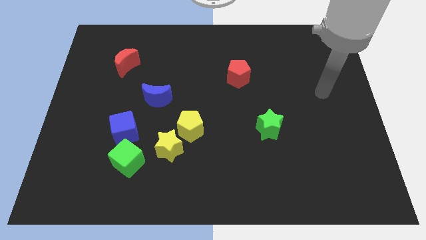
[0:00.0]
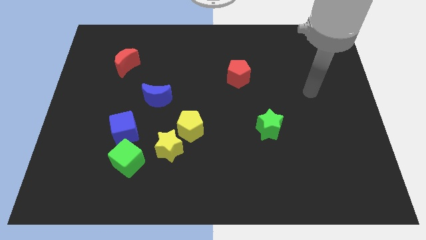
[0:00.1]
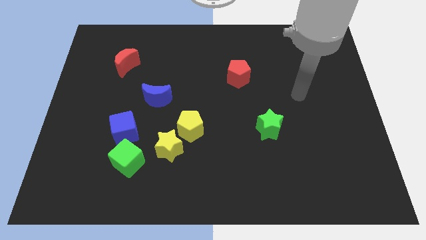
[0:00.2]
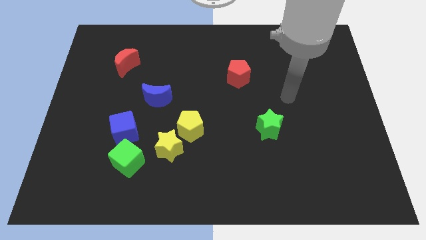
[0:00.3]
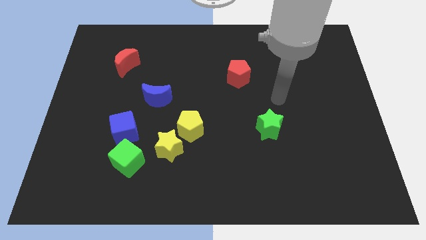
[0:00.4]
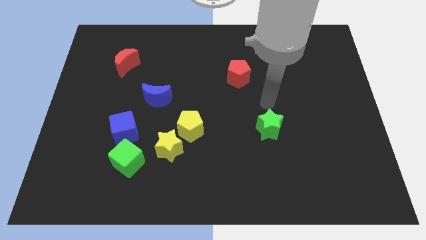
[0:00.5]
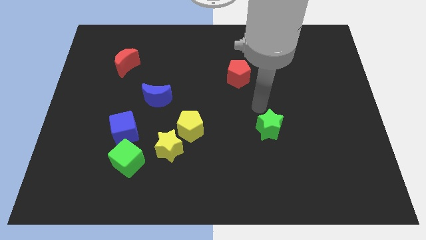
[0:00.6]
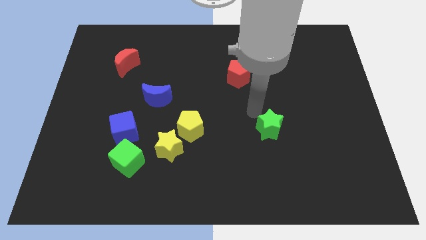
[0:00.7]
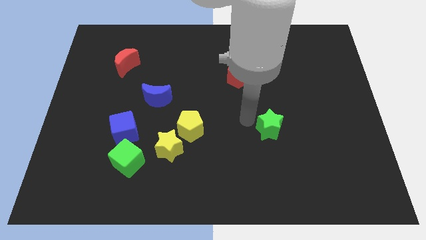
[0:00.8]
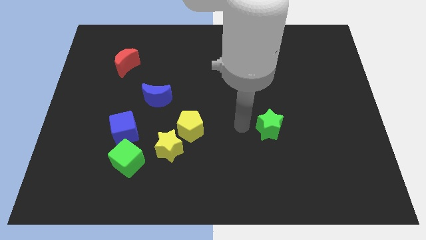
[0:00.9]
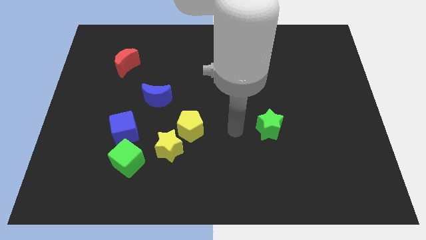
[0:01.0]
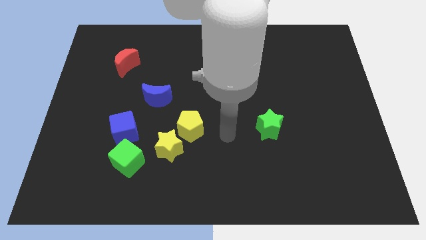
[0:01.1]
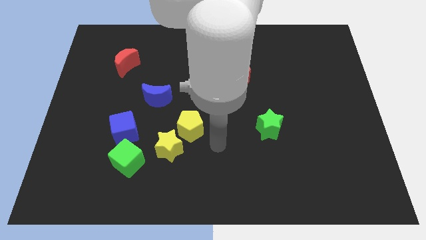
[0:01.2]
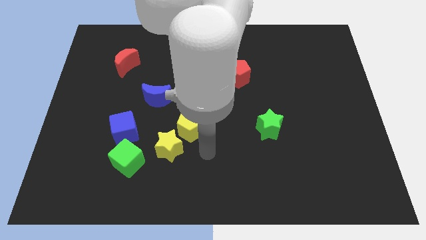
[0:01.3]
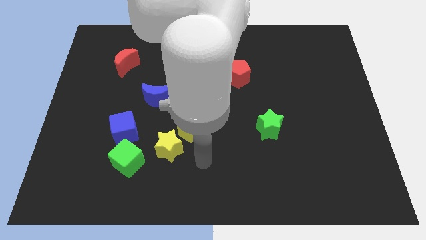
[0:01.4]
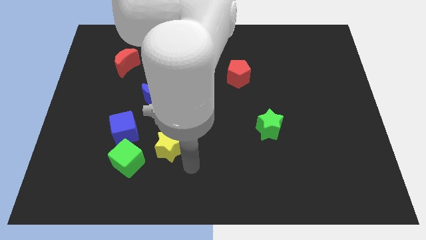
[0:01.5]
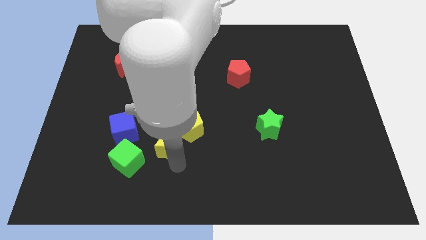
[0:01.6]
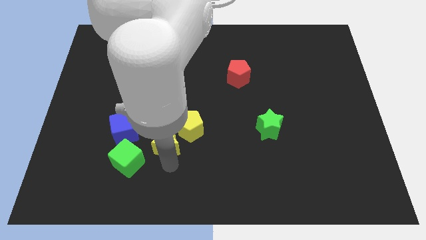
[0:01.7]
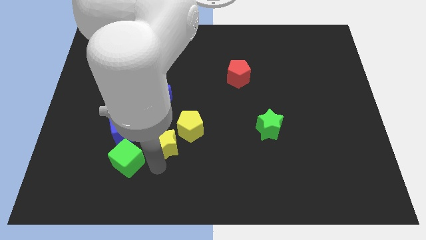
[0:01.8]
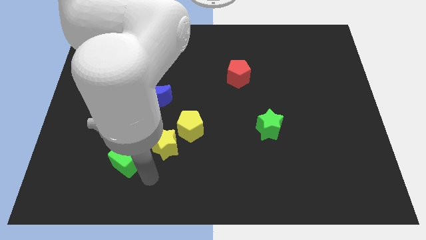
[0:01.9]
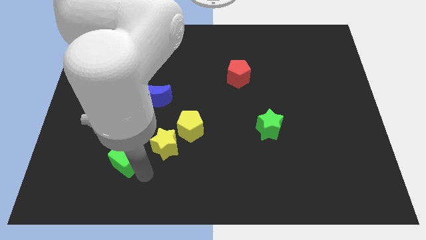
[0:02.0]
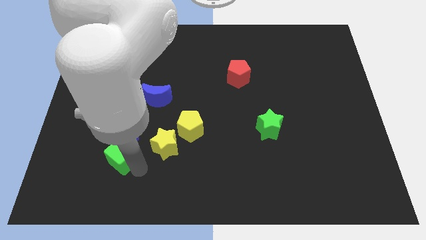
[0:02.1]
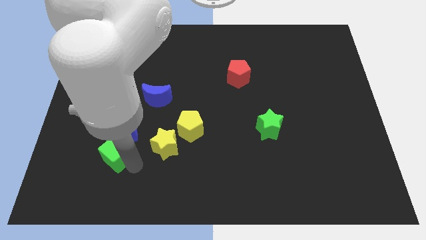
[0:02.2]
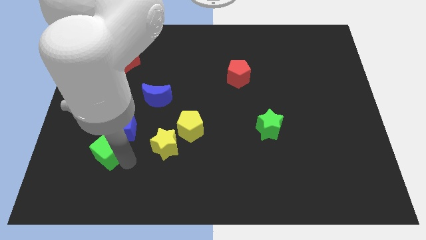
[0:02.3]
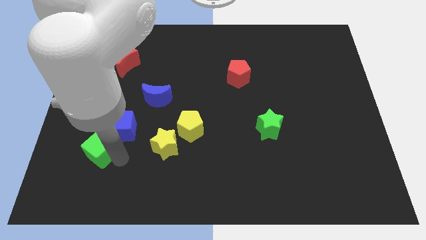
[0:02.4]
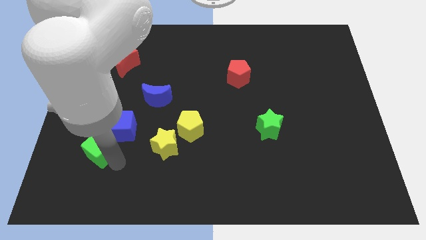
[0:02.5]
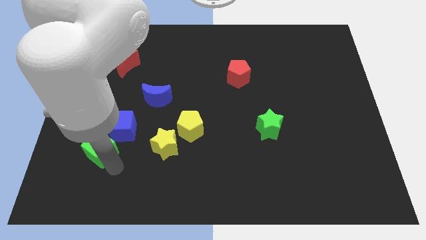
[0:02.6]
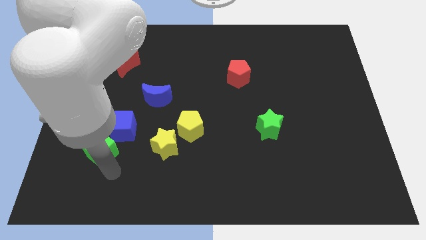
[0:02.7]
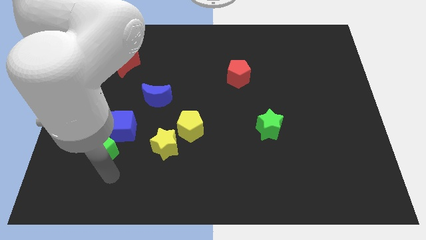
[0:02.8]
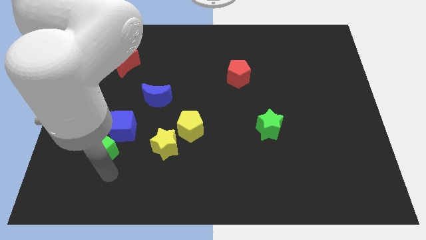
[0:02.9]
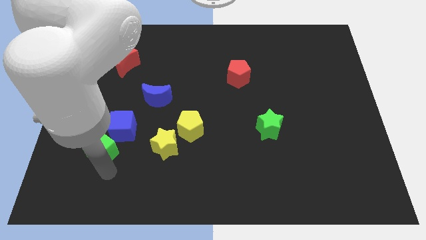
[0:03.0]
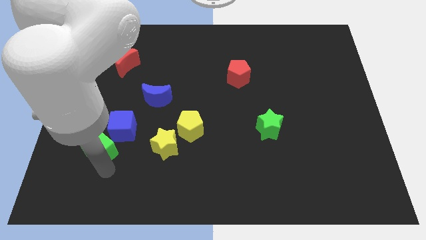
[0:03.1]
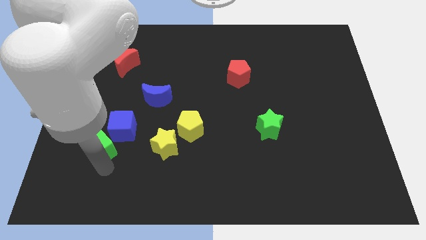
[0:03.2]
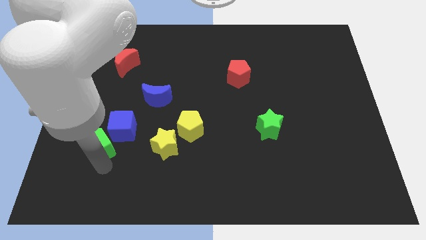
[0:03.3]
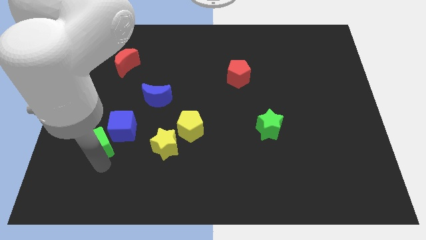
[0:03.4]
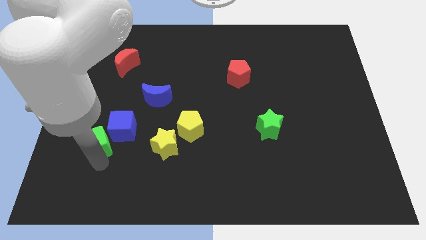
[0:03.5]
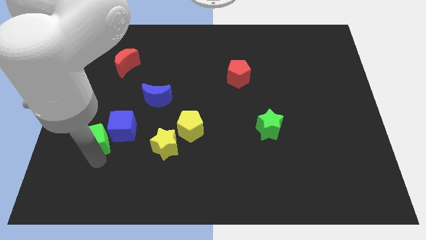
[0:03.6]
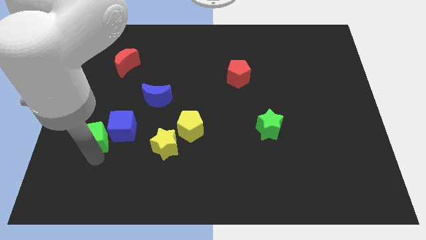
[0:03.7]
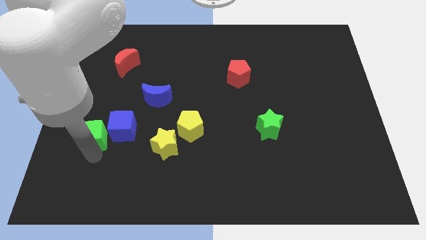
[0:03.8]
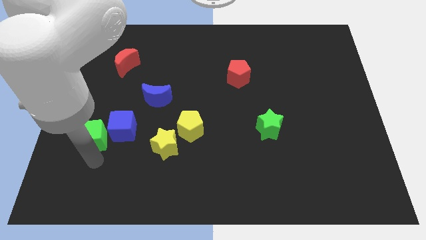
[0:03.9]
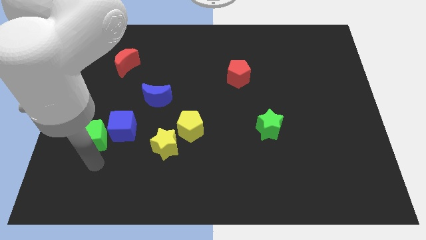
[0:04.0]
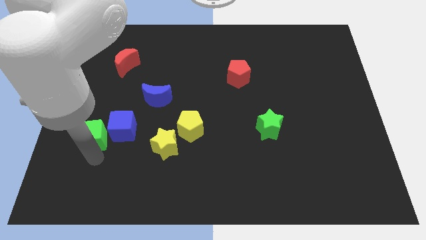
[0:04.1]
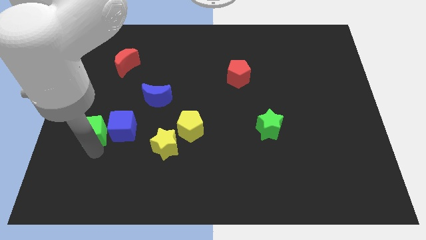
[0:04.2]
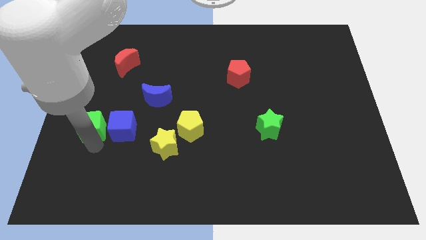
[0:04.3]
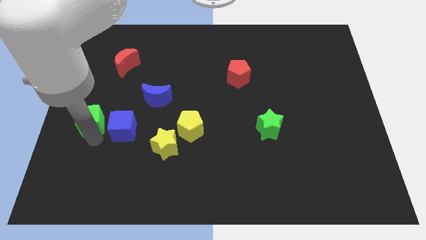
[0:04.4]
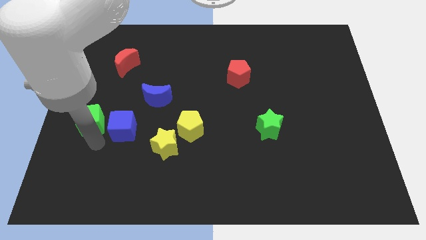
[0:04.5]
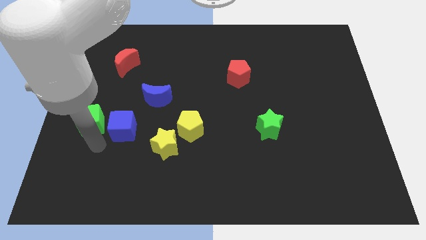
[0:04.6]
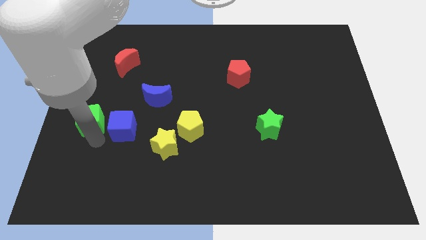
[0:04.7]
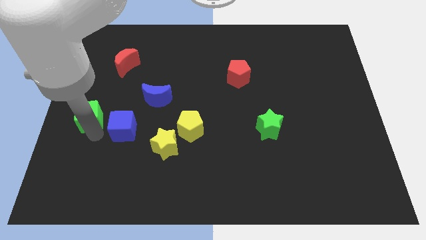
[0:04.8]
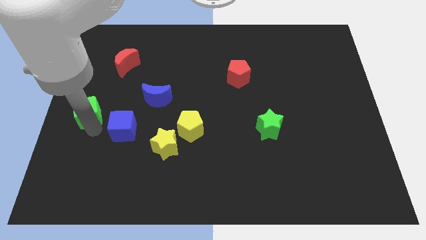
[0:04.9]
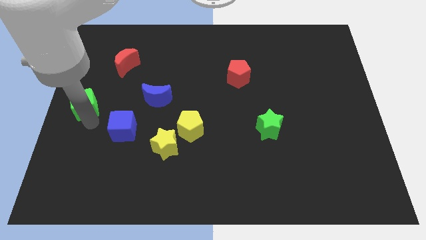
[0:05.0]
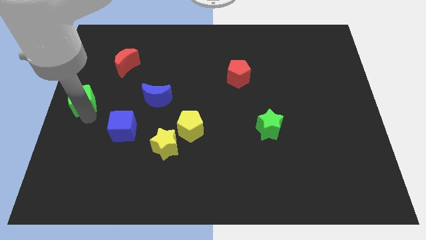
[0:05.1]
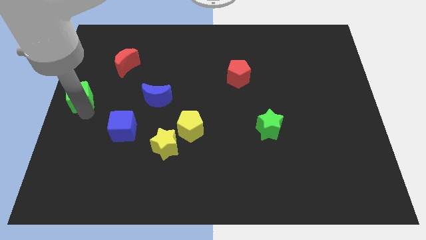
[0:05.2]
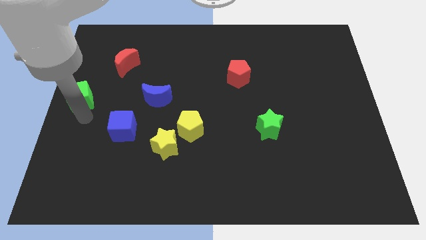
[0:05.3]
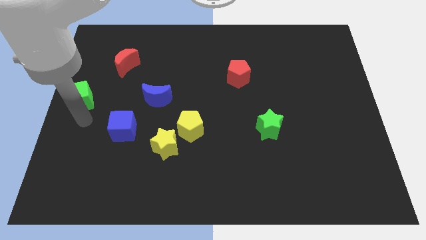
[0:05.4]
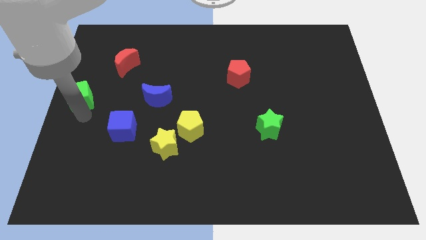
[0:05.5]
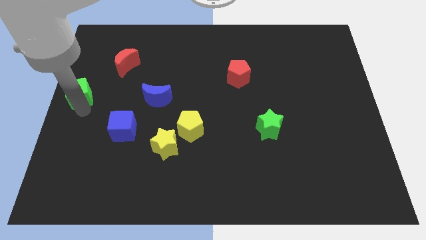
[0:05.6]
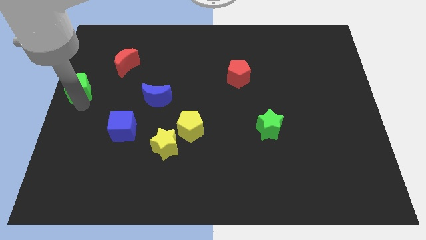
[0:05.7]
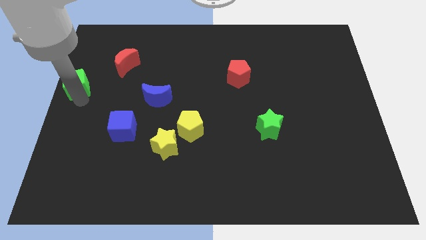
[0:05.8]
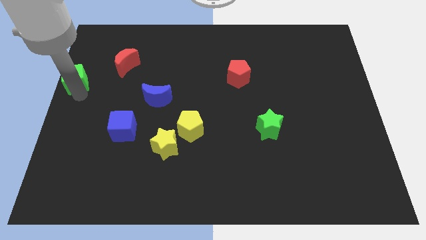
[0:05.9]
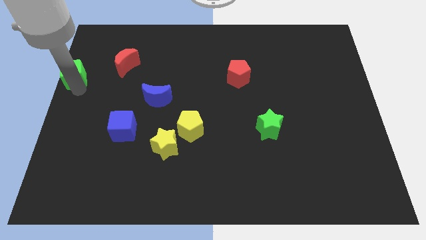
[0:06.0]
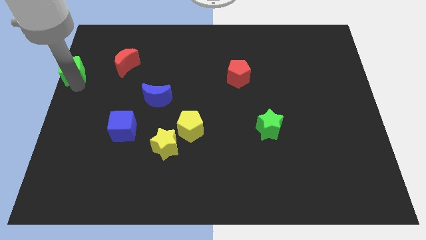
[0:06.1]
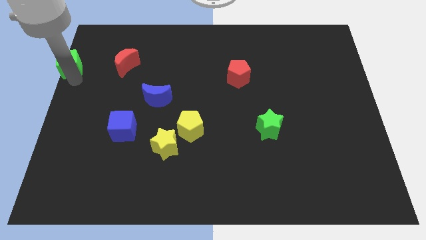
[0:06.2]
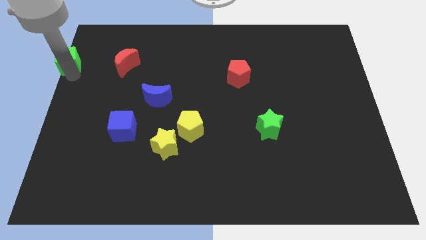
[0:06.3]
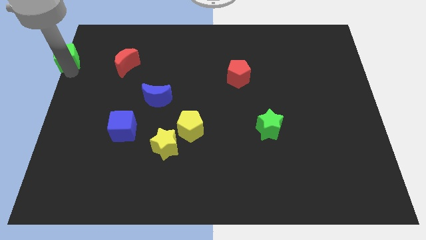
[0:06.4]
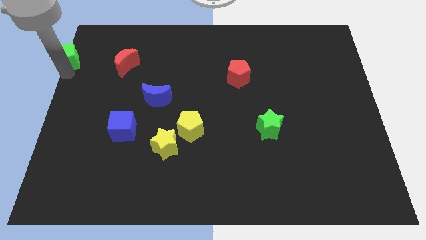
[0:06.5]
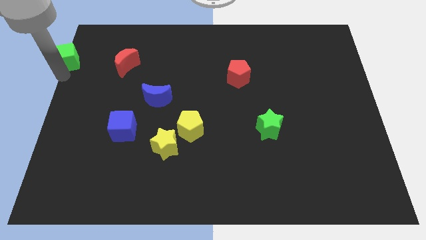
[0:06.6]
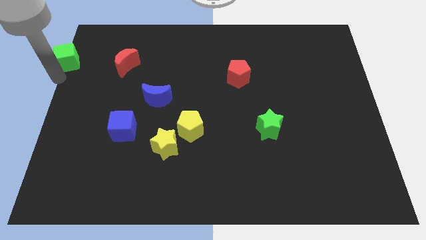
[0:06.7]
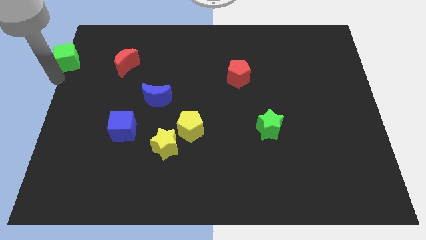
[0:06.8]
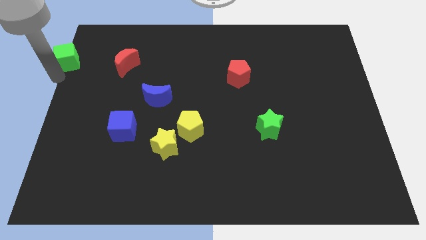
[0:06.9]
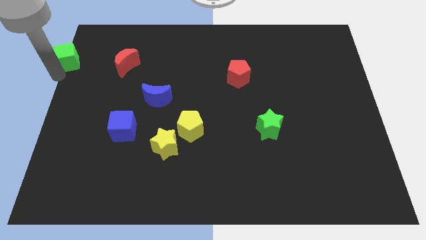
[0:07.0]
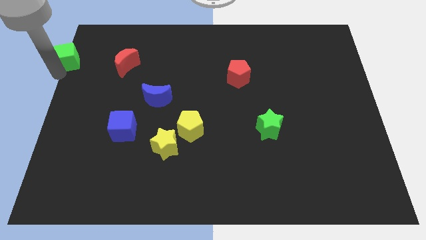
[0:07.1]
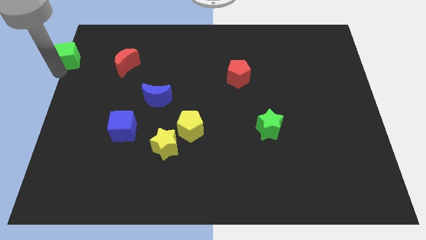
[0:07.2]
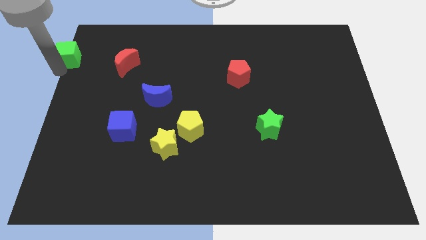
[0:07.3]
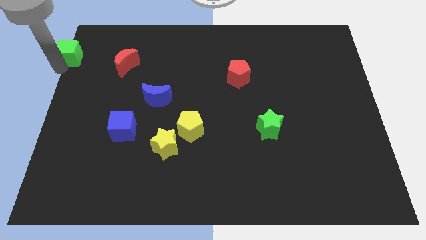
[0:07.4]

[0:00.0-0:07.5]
put the green cube to the top left
